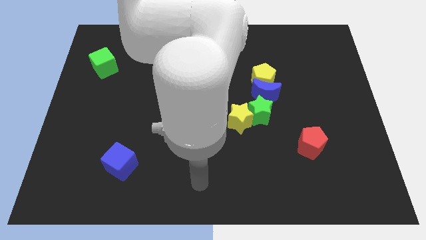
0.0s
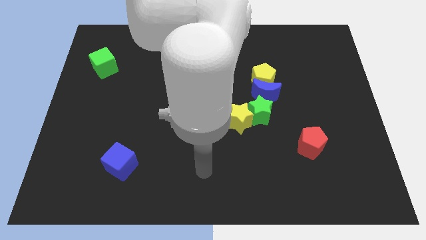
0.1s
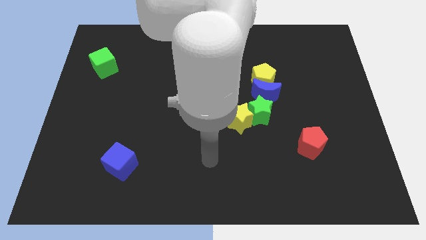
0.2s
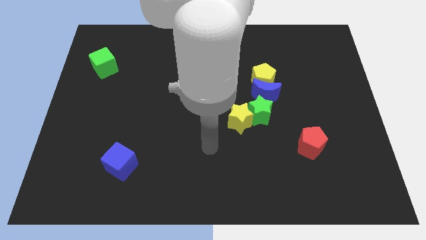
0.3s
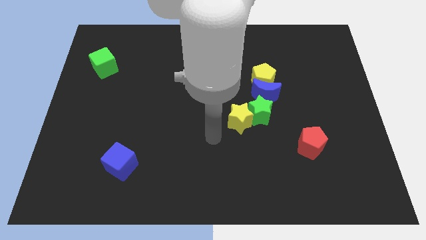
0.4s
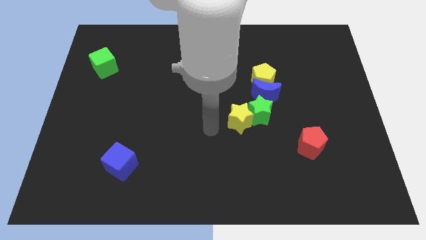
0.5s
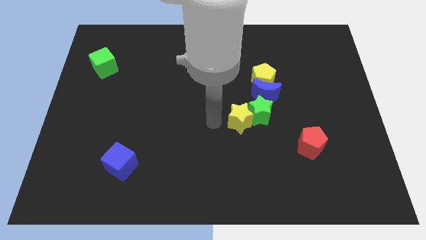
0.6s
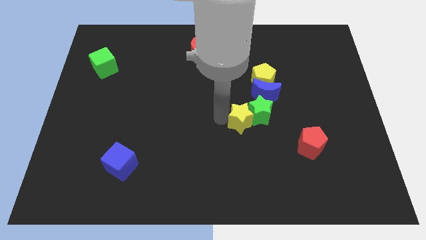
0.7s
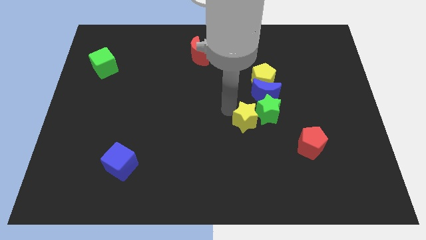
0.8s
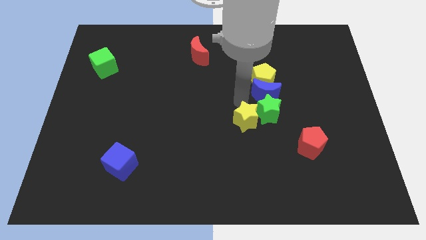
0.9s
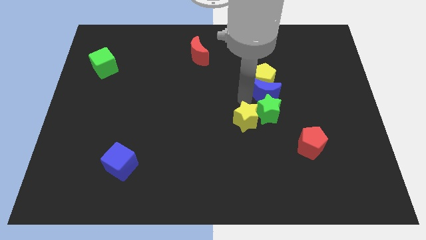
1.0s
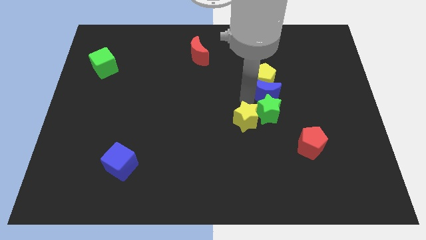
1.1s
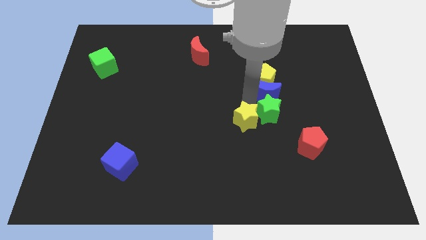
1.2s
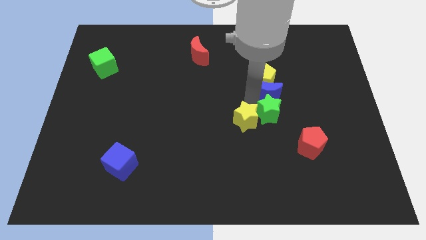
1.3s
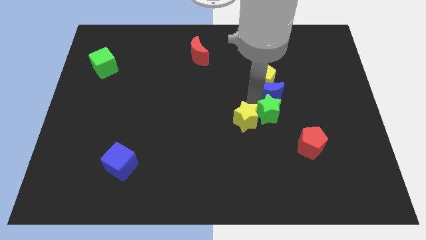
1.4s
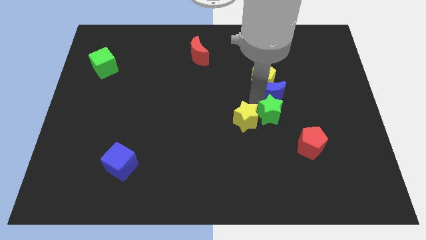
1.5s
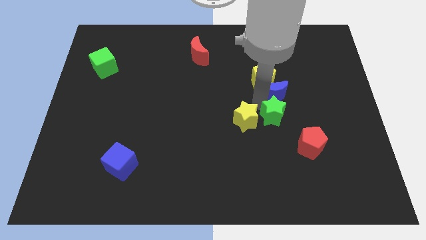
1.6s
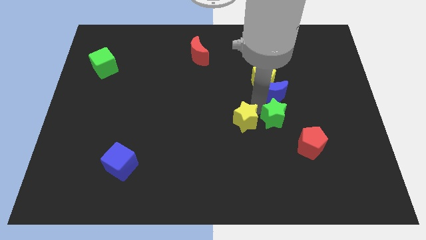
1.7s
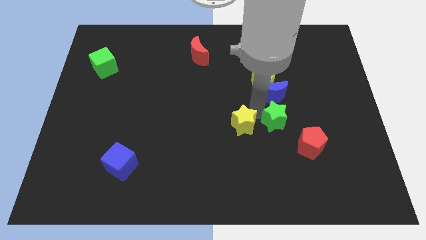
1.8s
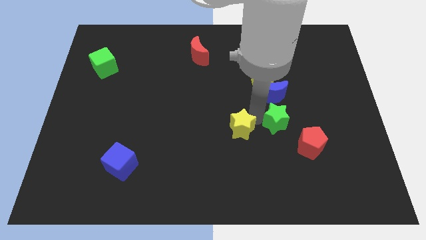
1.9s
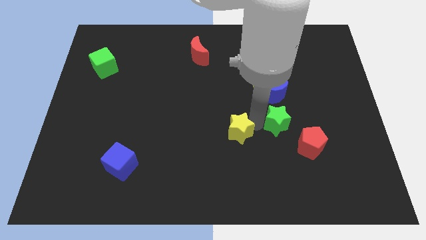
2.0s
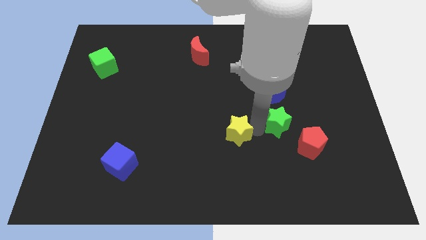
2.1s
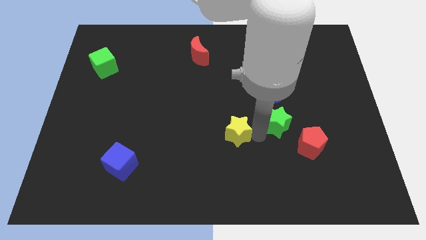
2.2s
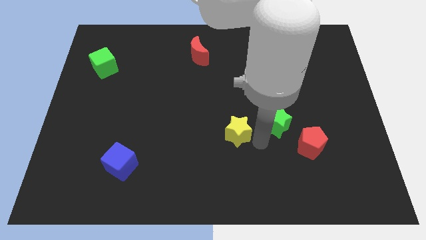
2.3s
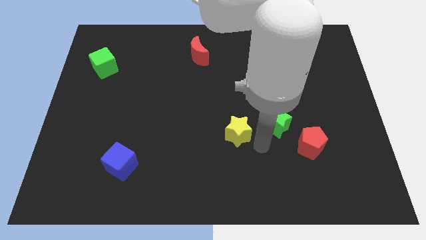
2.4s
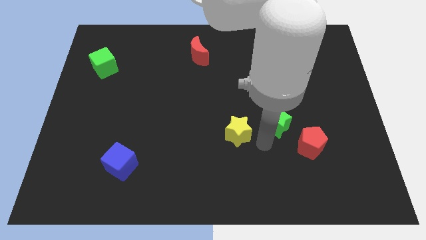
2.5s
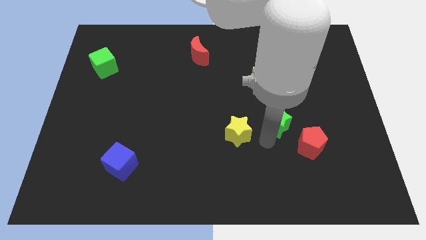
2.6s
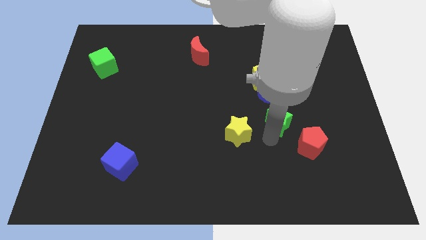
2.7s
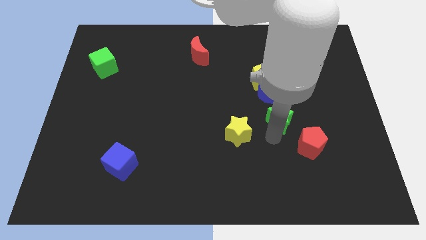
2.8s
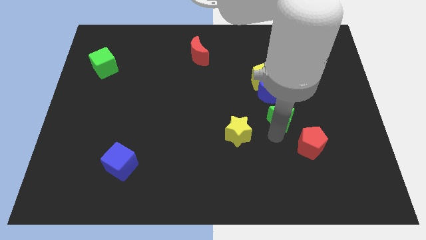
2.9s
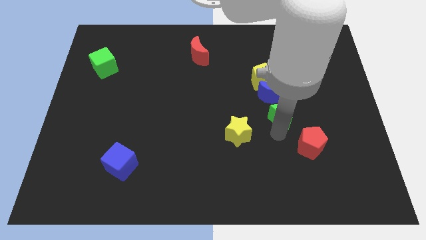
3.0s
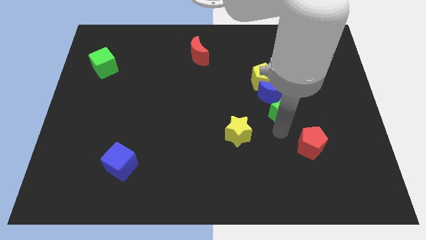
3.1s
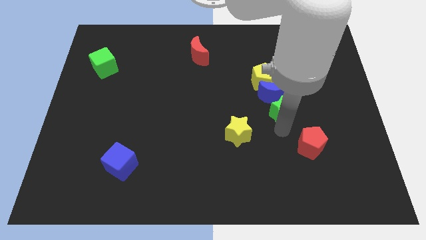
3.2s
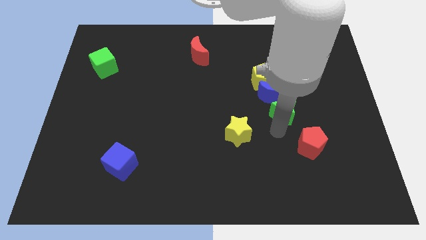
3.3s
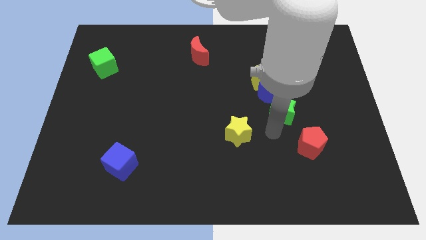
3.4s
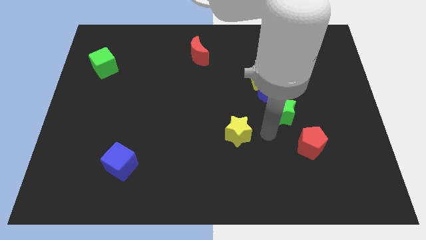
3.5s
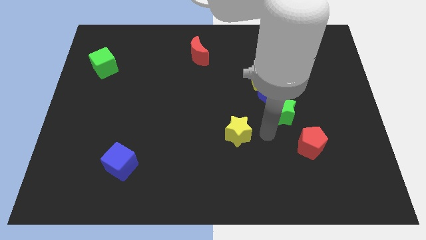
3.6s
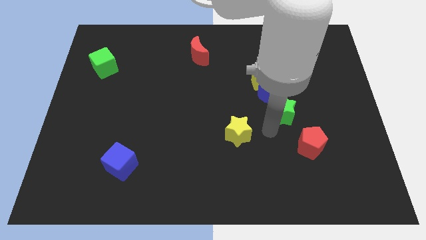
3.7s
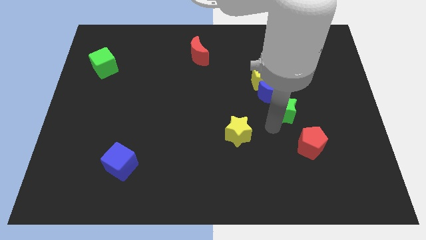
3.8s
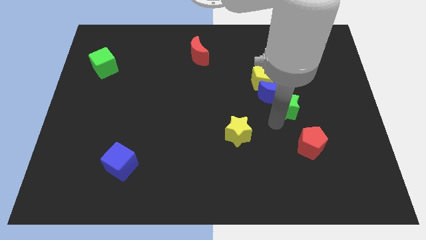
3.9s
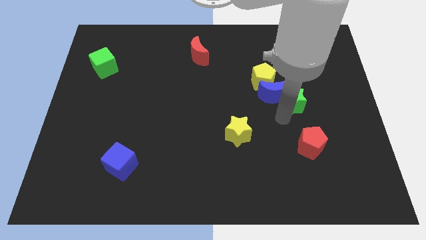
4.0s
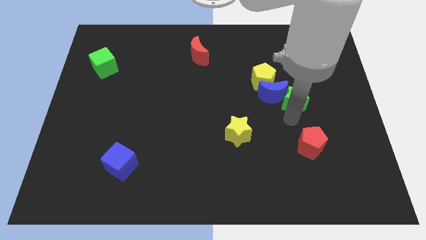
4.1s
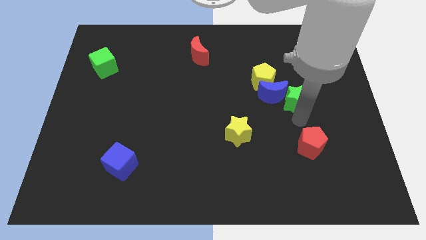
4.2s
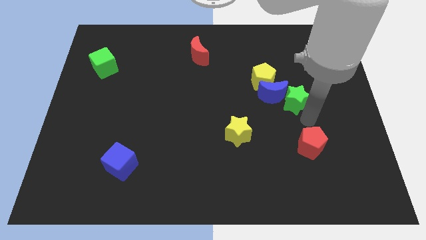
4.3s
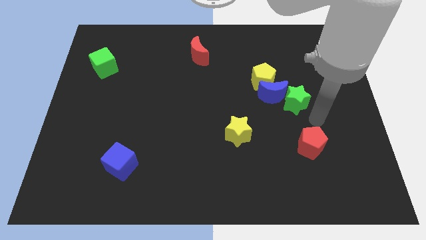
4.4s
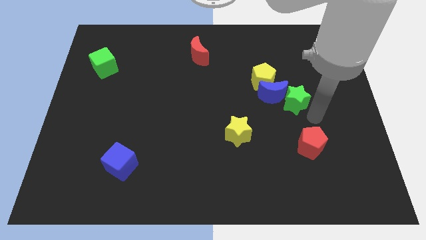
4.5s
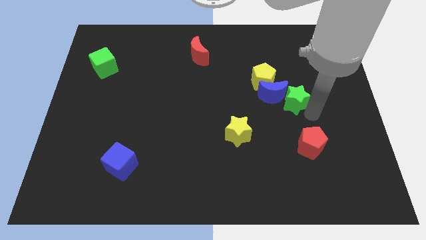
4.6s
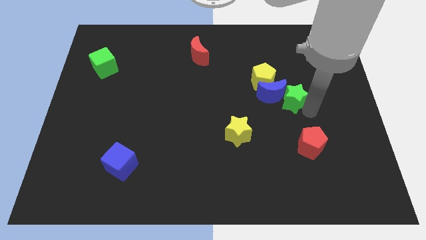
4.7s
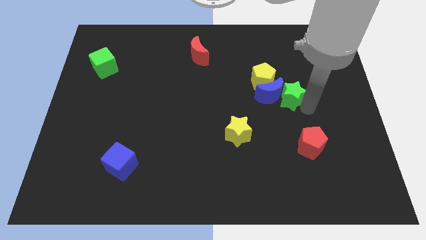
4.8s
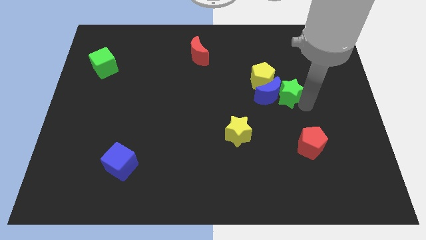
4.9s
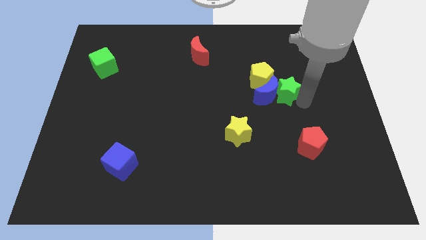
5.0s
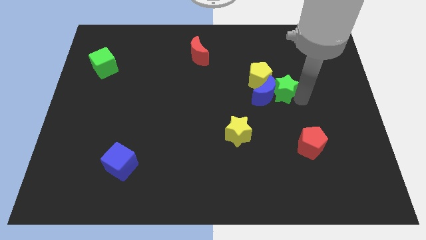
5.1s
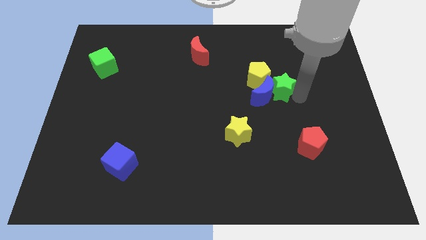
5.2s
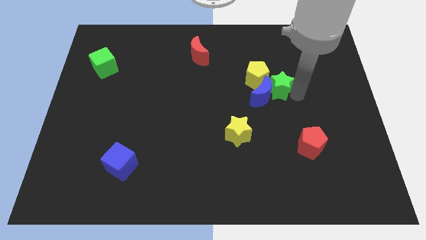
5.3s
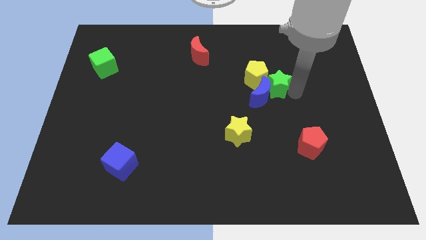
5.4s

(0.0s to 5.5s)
slide the green star next to the yellow pentagon

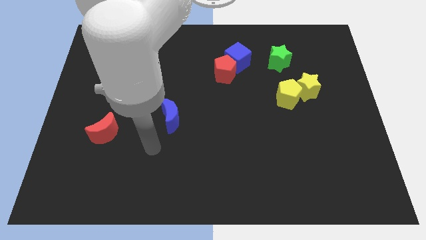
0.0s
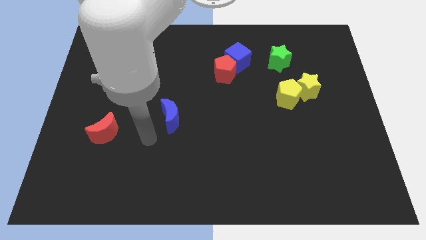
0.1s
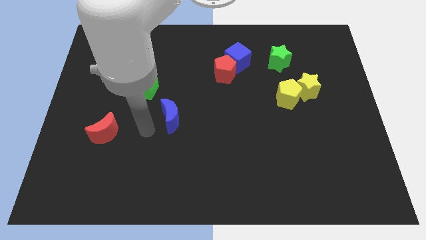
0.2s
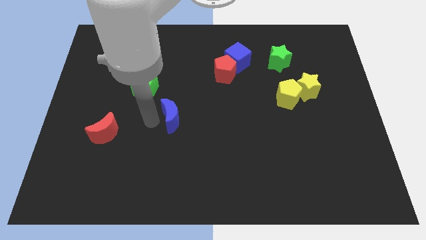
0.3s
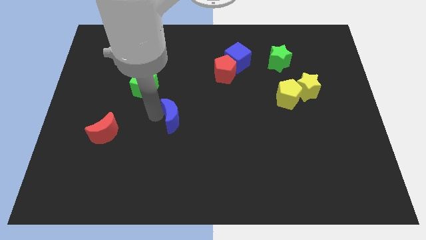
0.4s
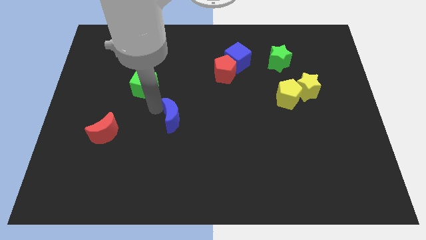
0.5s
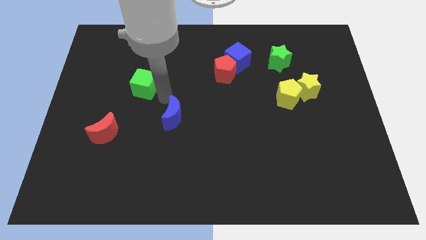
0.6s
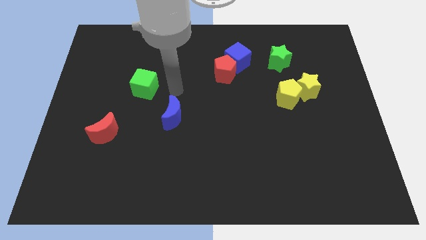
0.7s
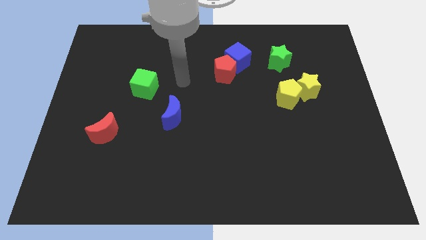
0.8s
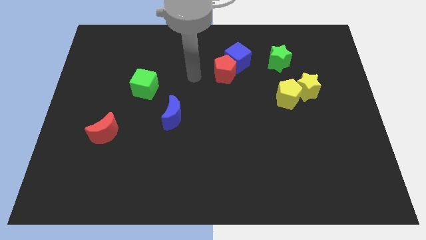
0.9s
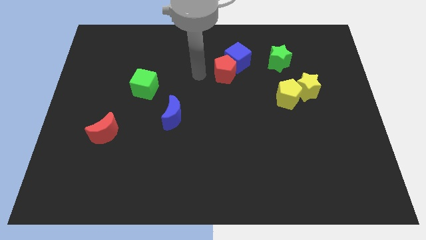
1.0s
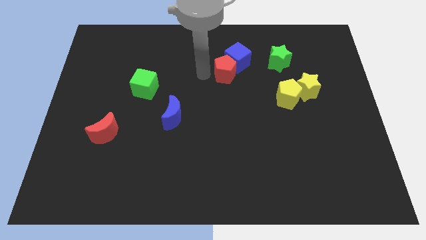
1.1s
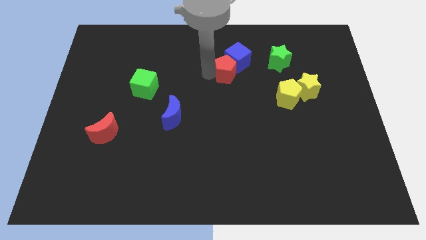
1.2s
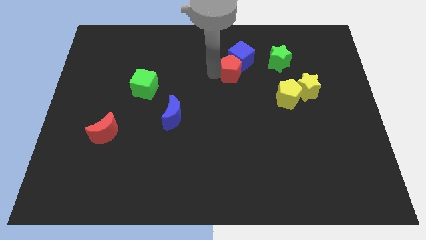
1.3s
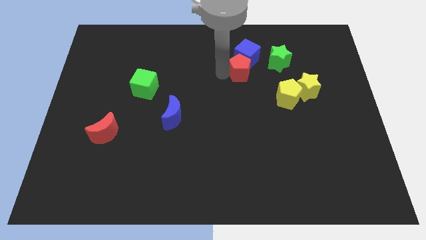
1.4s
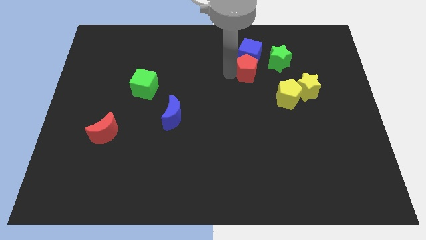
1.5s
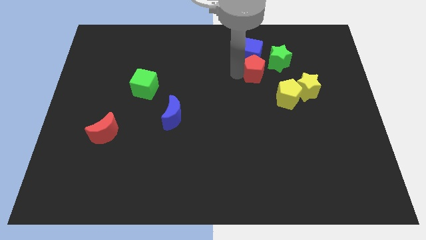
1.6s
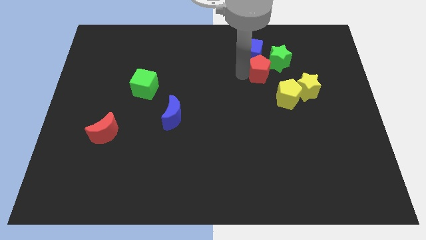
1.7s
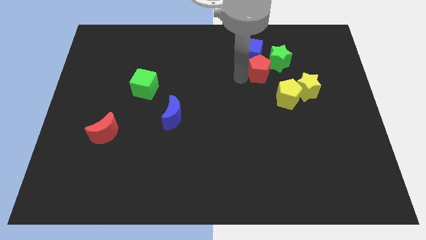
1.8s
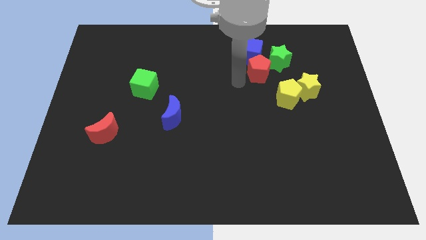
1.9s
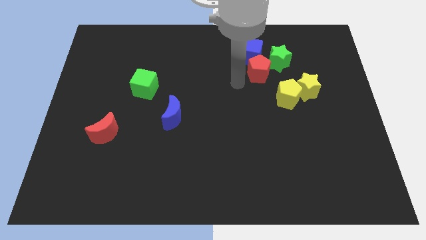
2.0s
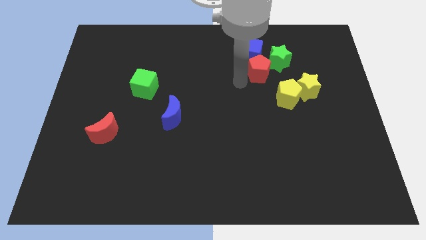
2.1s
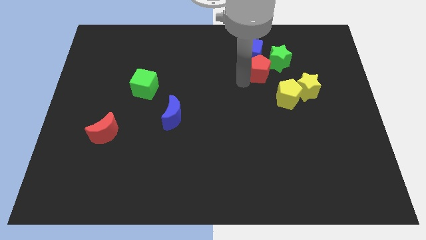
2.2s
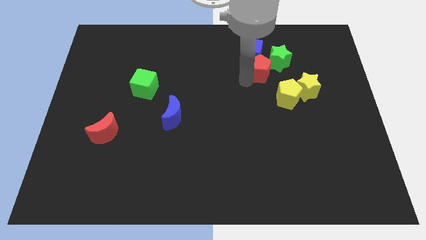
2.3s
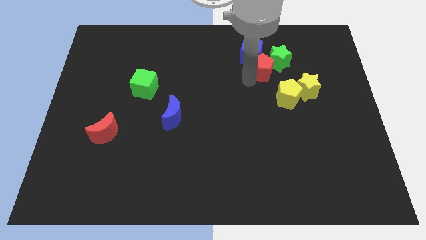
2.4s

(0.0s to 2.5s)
put the red pentagon to the green star
